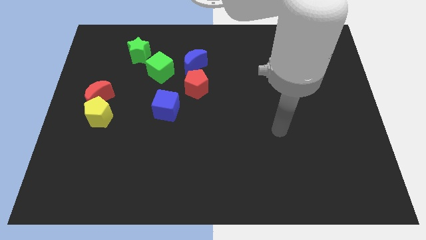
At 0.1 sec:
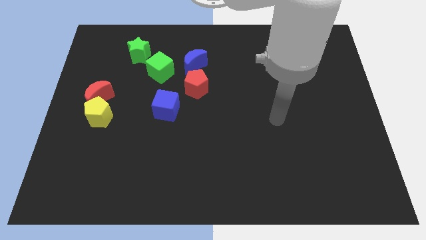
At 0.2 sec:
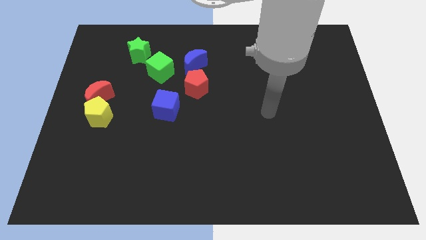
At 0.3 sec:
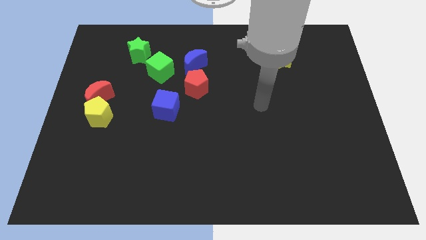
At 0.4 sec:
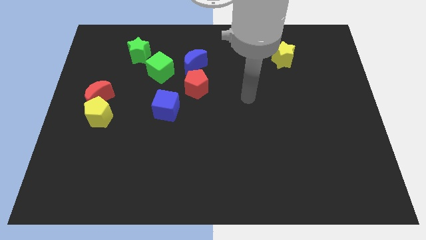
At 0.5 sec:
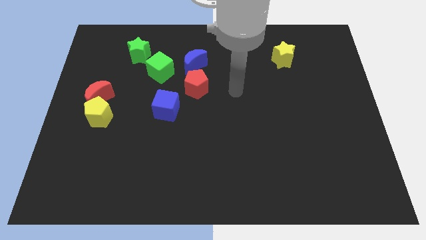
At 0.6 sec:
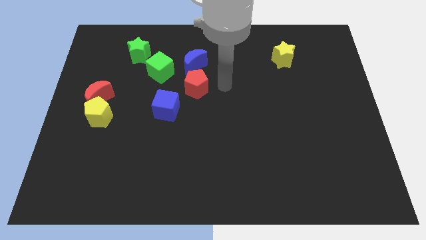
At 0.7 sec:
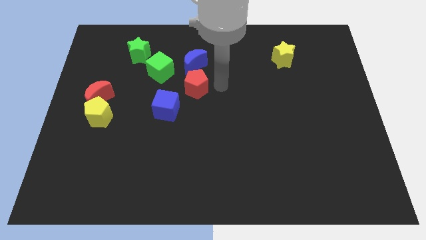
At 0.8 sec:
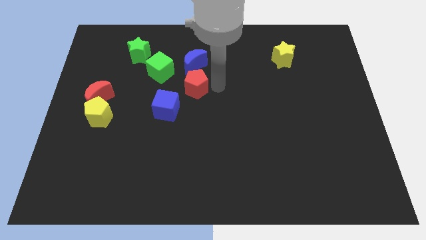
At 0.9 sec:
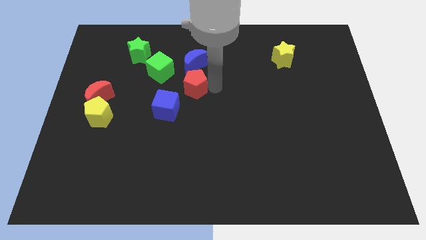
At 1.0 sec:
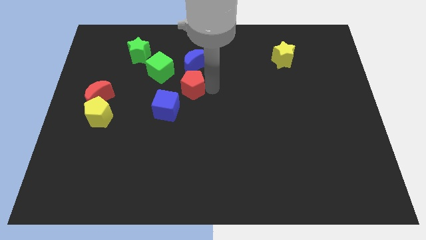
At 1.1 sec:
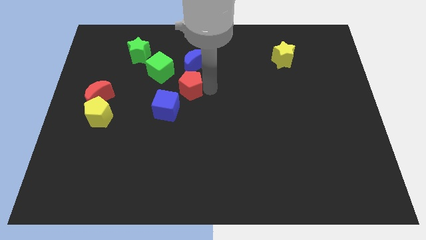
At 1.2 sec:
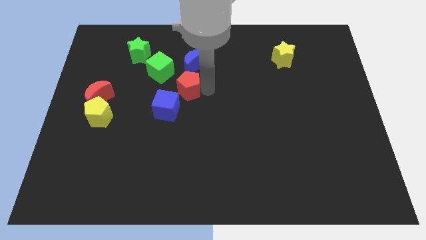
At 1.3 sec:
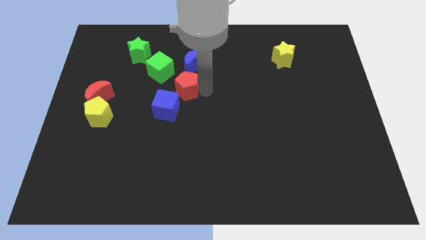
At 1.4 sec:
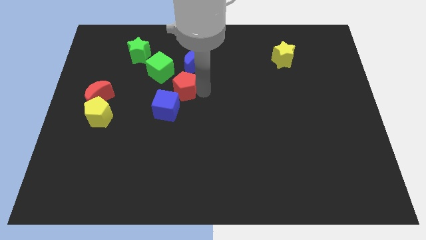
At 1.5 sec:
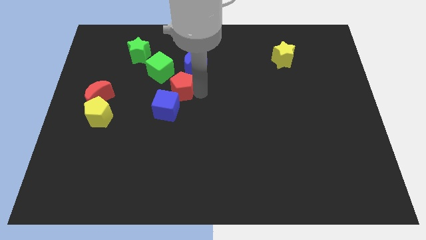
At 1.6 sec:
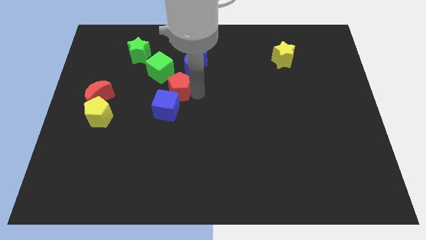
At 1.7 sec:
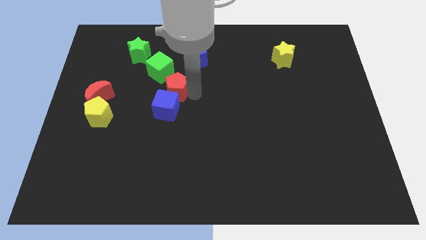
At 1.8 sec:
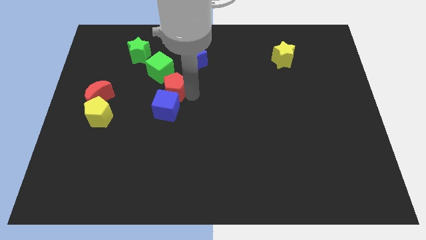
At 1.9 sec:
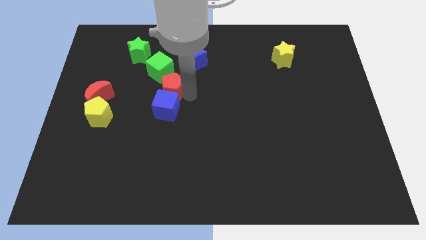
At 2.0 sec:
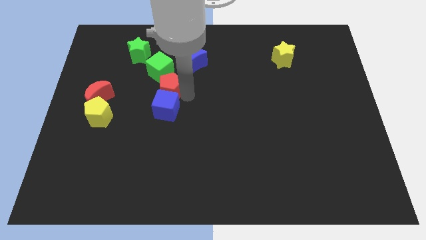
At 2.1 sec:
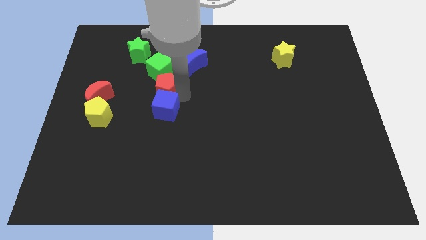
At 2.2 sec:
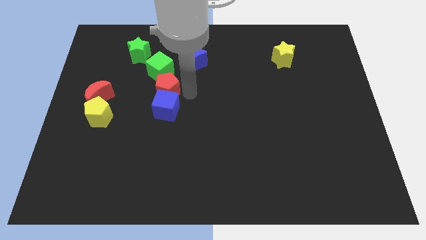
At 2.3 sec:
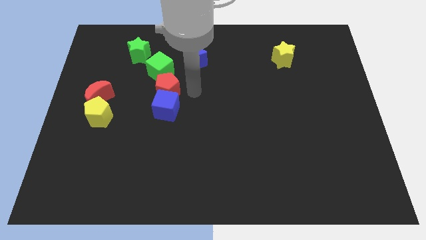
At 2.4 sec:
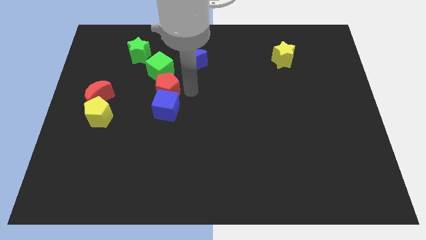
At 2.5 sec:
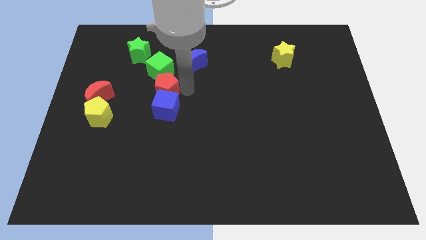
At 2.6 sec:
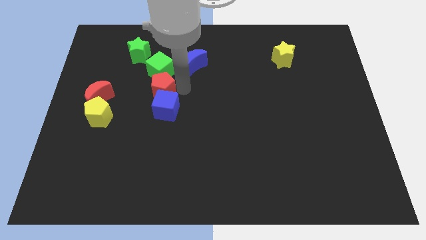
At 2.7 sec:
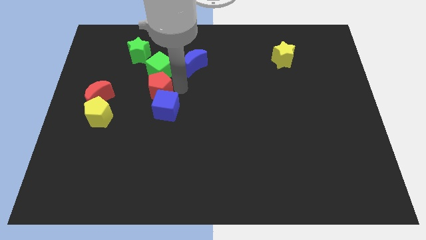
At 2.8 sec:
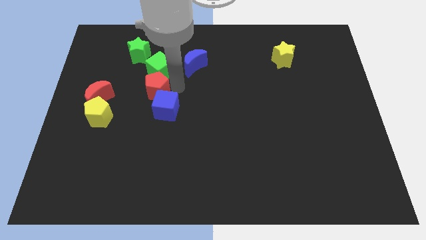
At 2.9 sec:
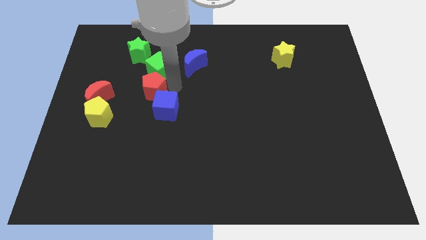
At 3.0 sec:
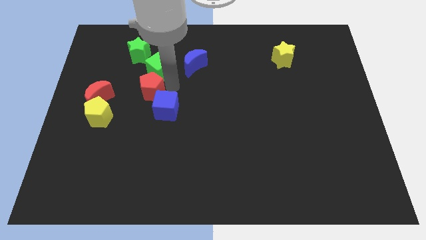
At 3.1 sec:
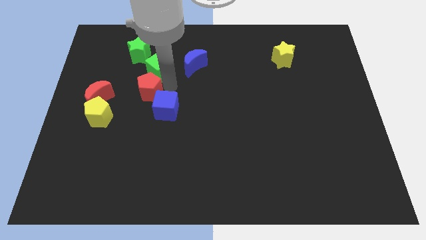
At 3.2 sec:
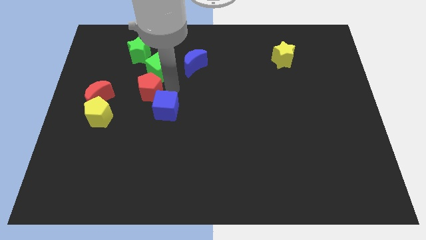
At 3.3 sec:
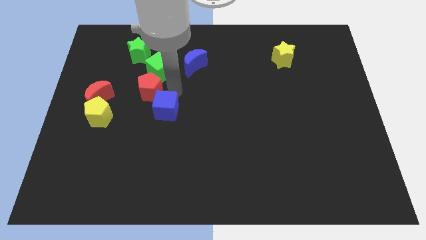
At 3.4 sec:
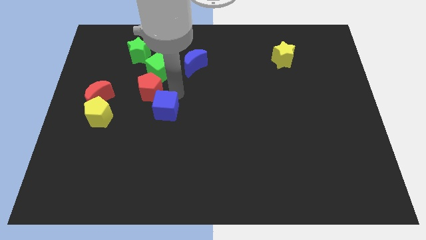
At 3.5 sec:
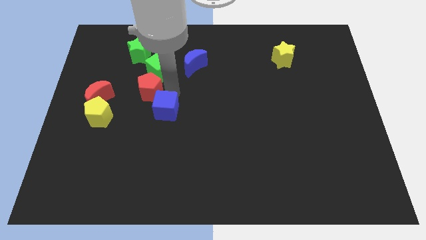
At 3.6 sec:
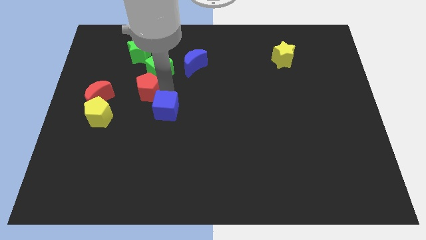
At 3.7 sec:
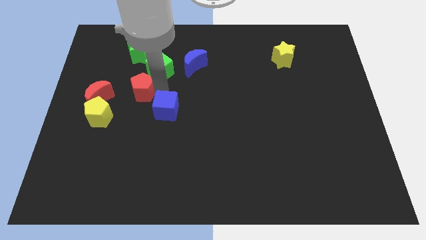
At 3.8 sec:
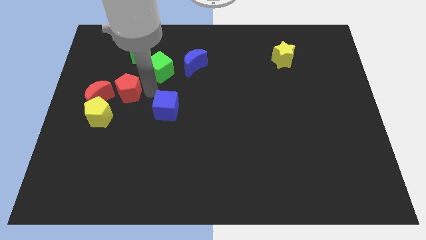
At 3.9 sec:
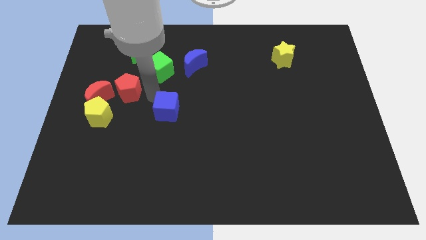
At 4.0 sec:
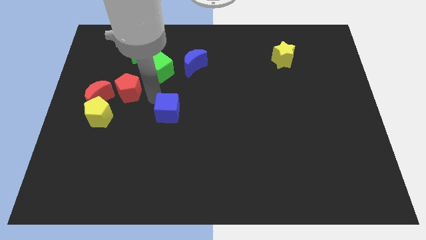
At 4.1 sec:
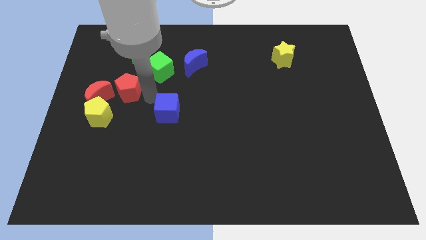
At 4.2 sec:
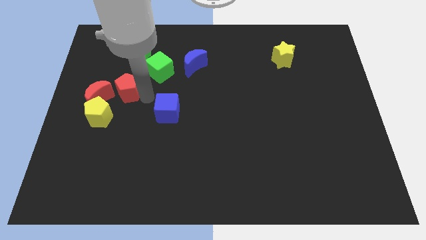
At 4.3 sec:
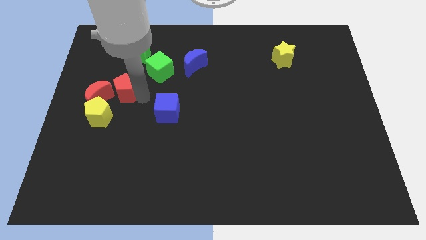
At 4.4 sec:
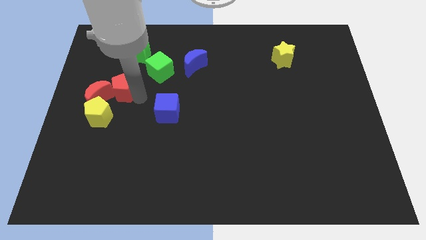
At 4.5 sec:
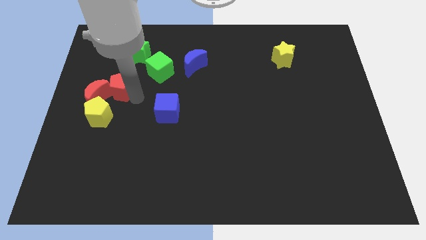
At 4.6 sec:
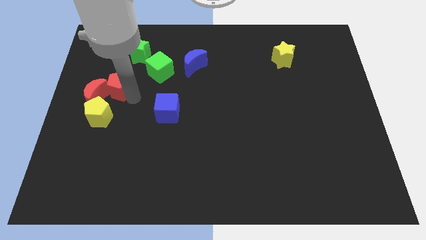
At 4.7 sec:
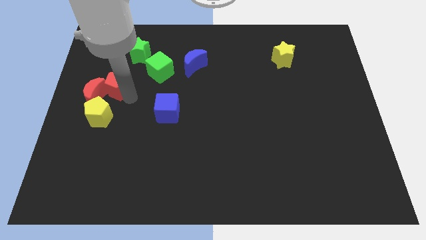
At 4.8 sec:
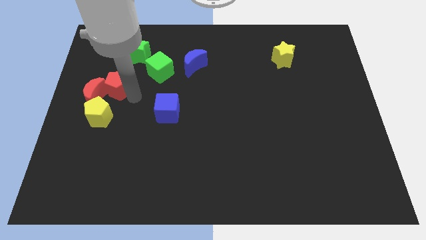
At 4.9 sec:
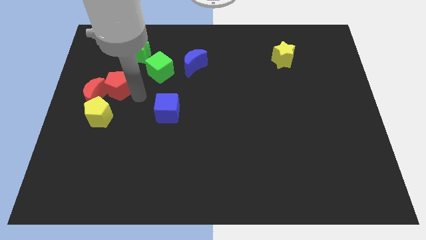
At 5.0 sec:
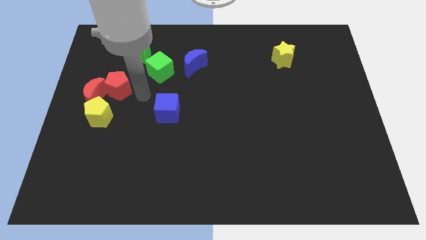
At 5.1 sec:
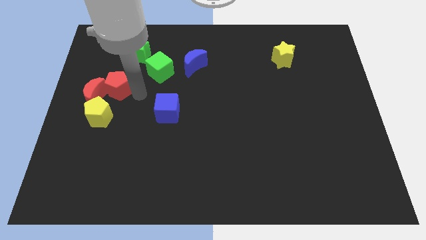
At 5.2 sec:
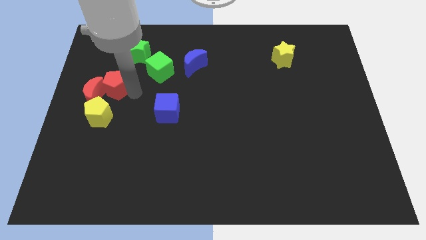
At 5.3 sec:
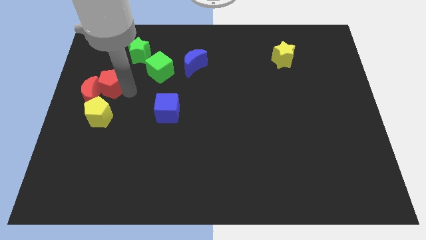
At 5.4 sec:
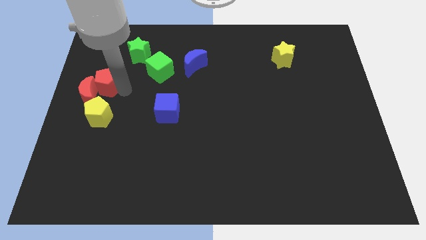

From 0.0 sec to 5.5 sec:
put the red pentagon to the left side
